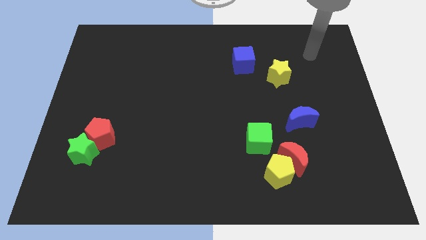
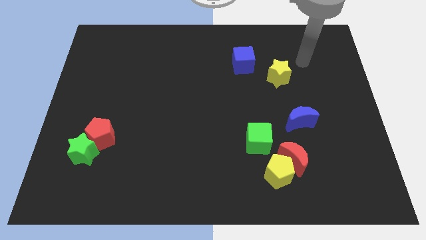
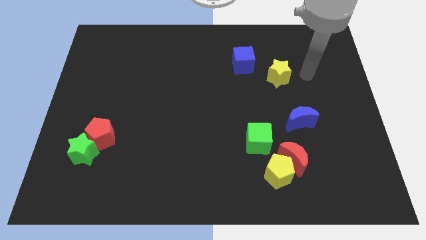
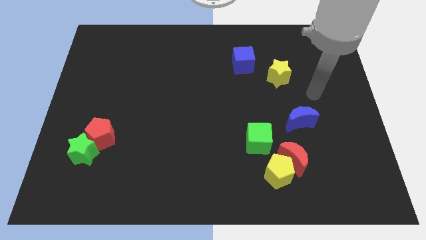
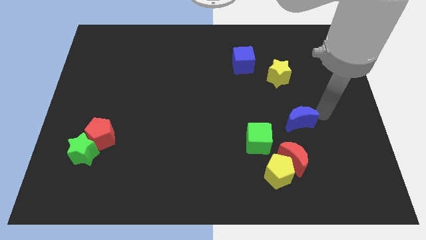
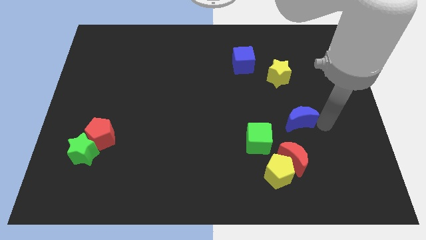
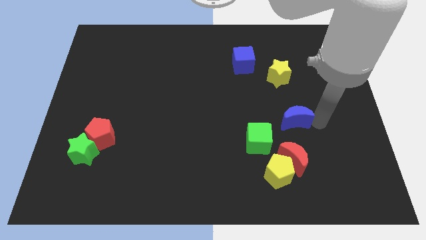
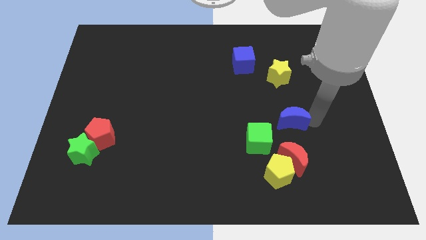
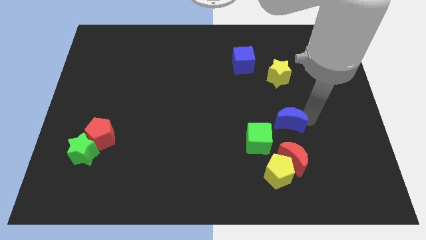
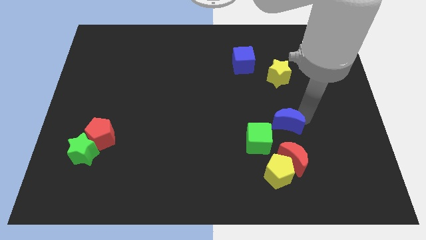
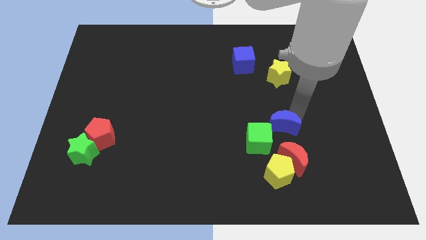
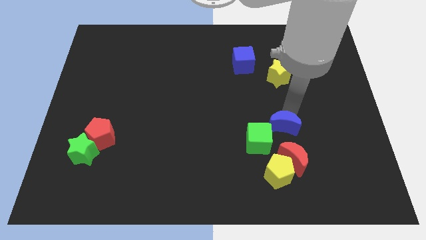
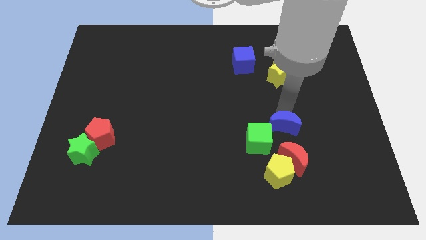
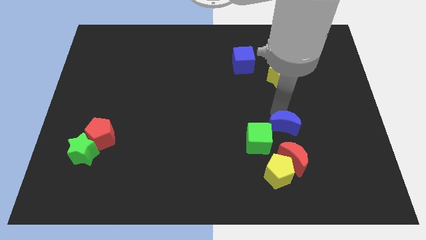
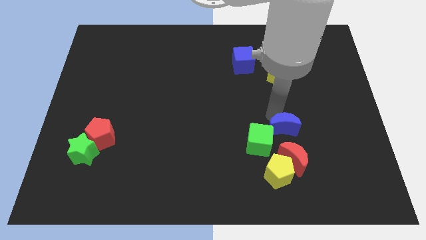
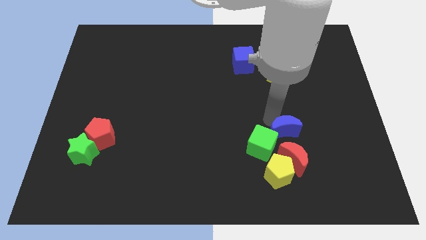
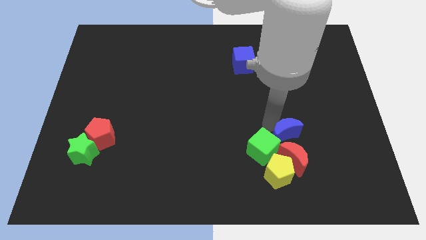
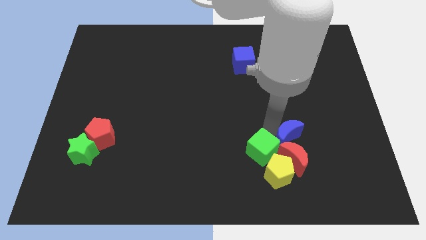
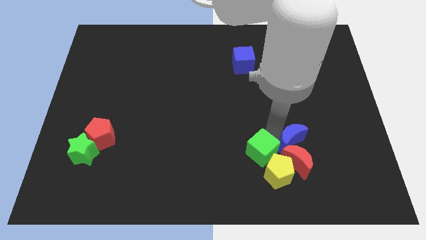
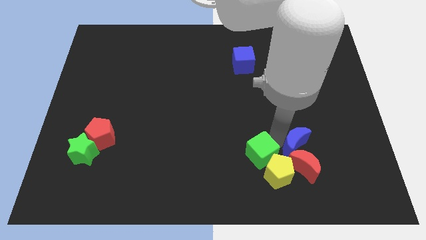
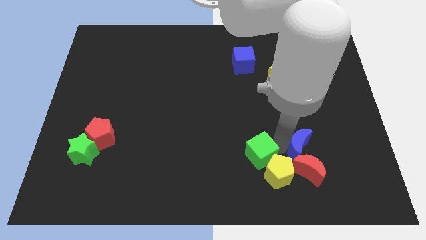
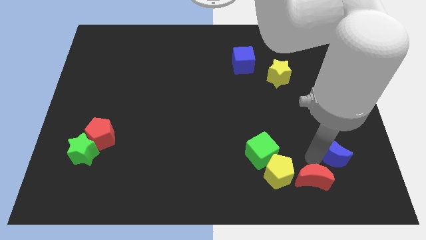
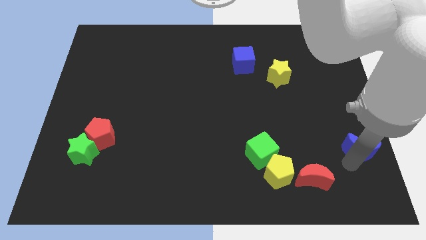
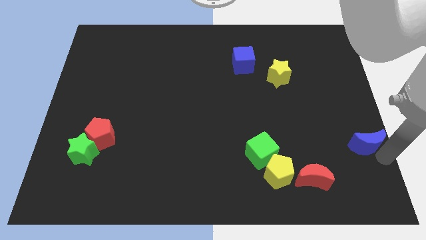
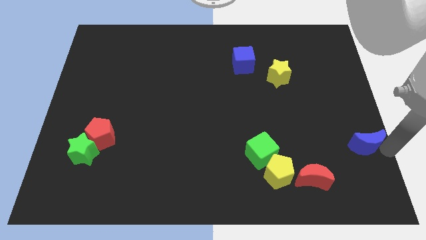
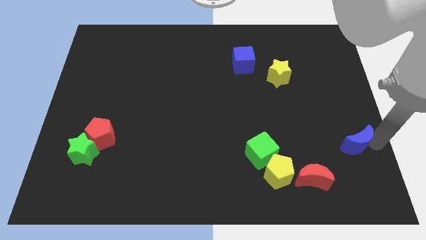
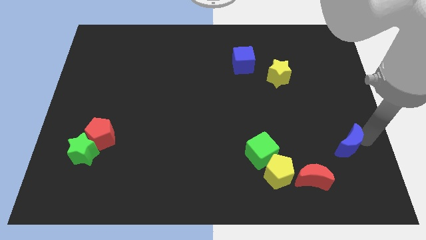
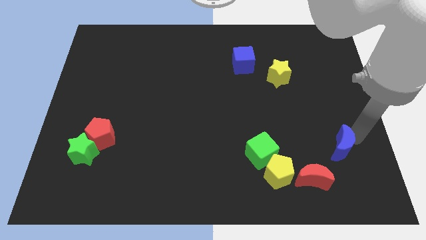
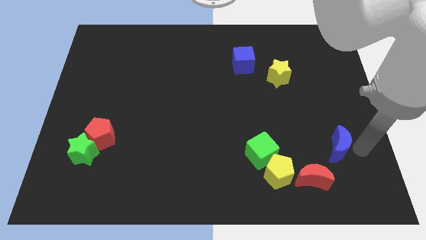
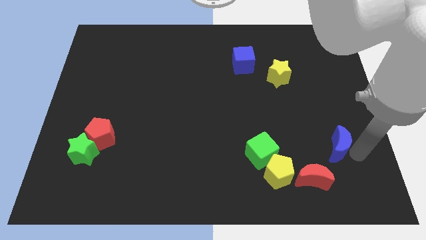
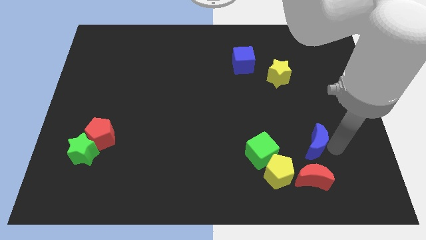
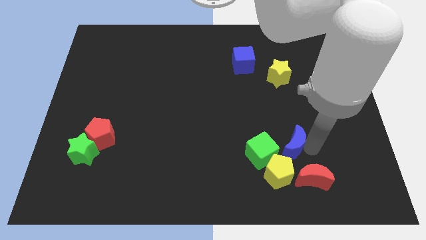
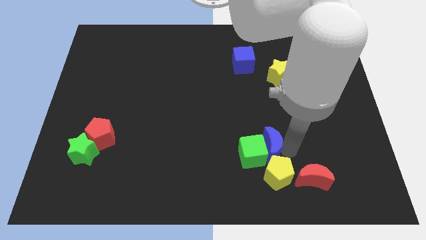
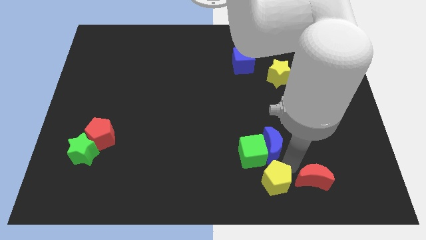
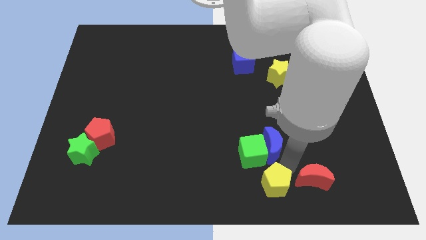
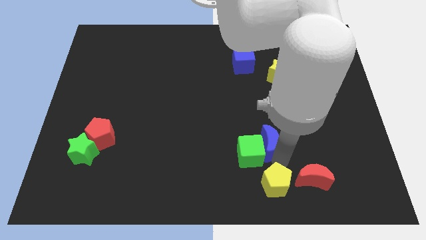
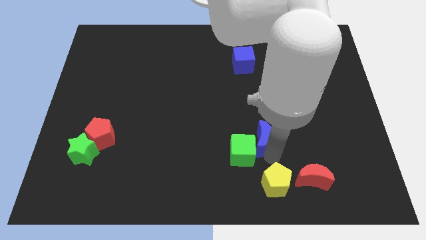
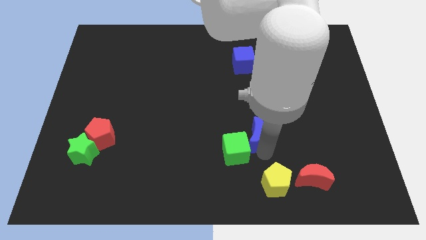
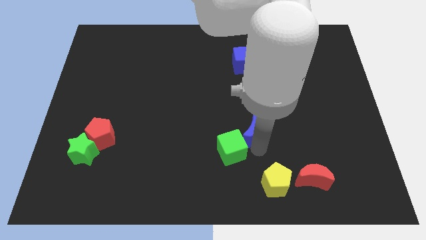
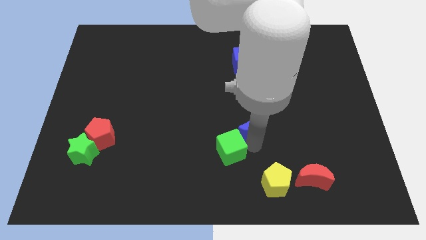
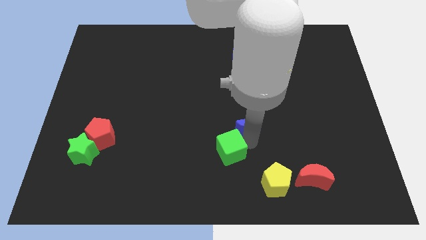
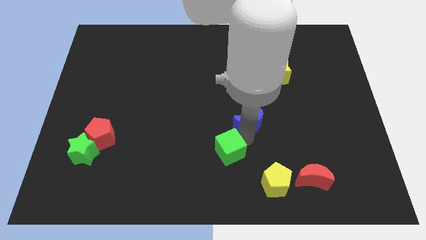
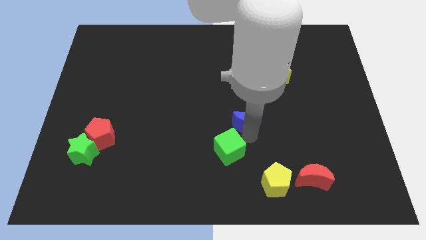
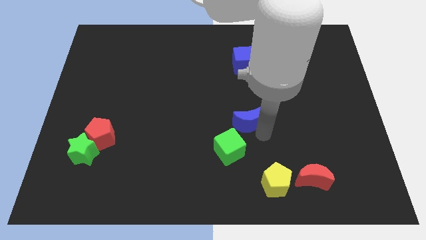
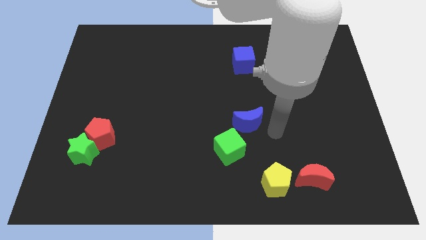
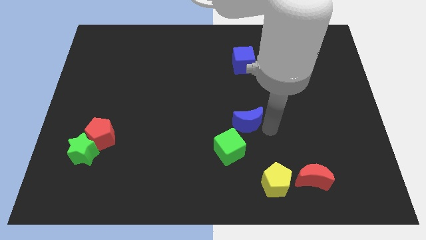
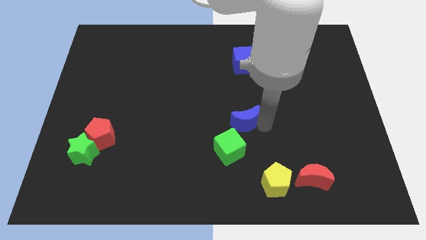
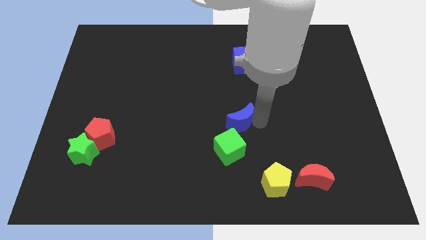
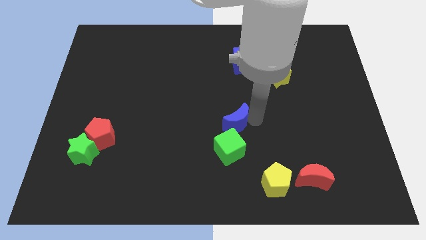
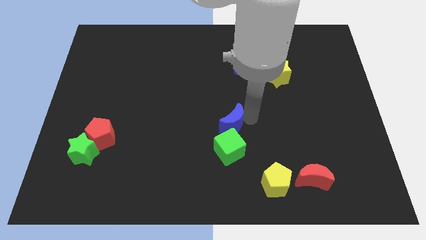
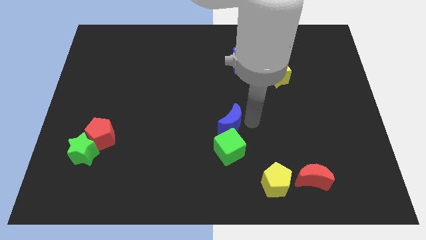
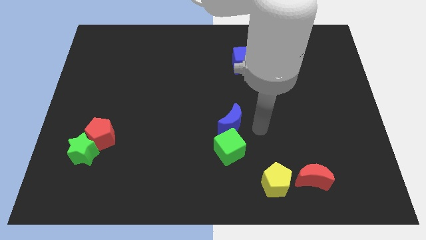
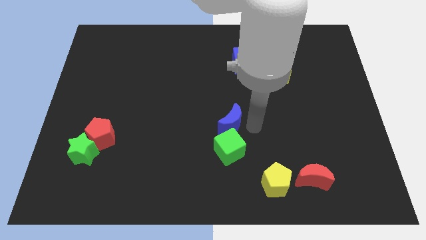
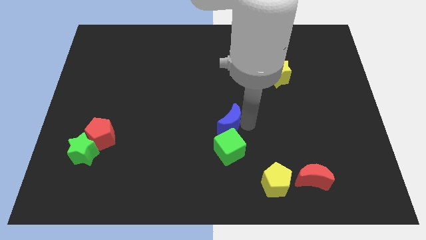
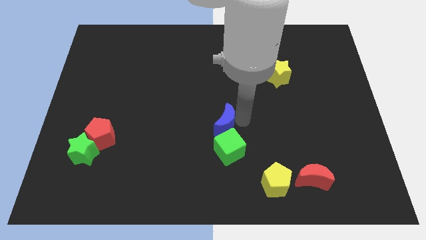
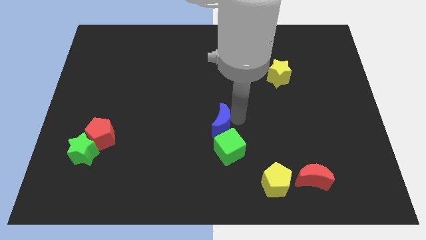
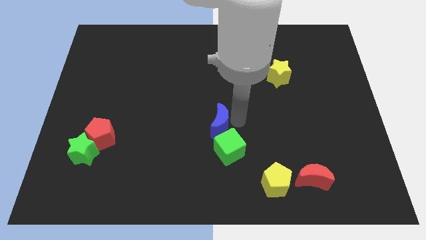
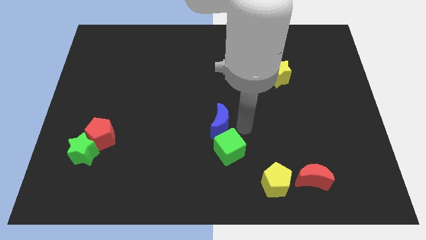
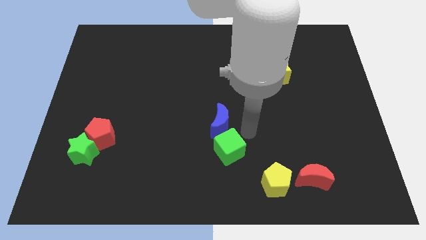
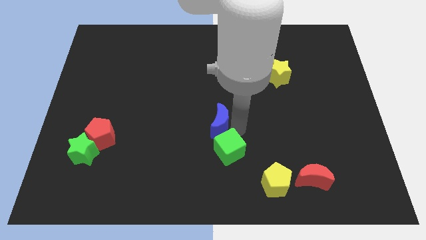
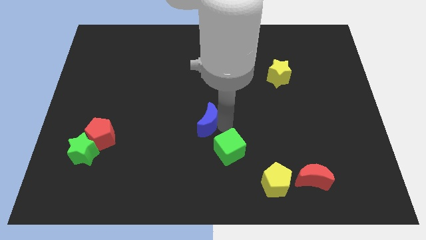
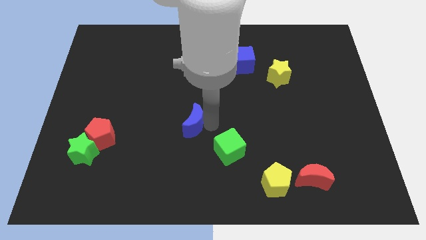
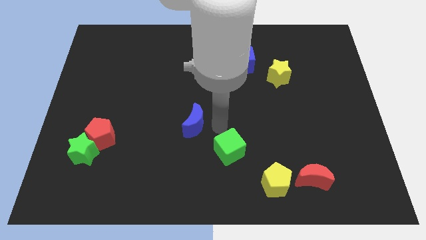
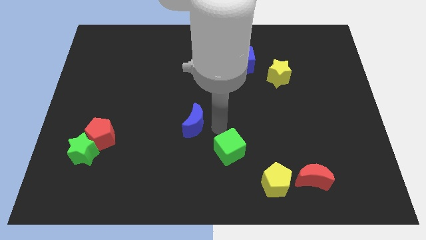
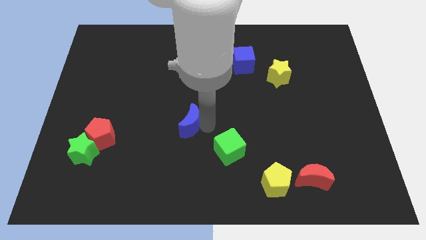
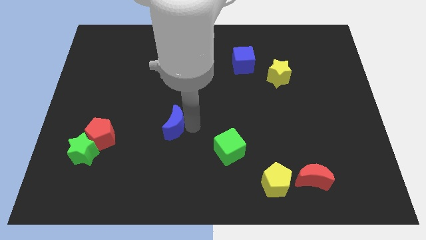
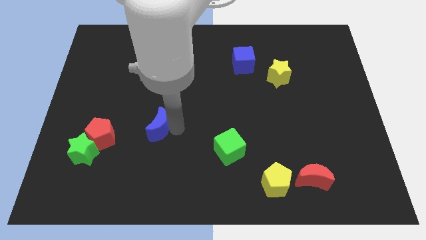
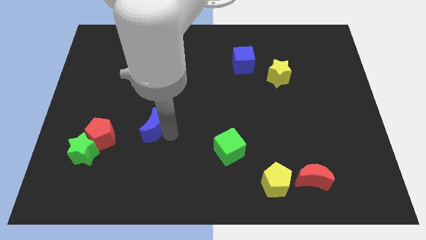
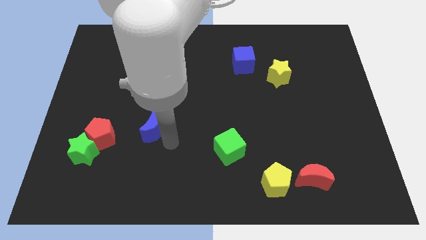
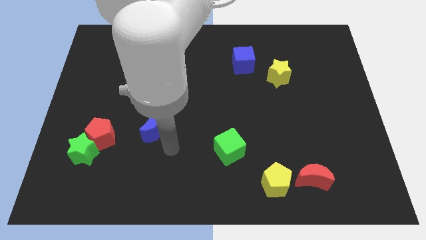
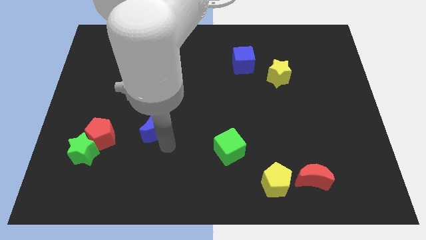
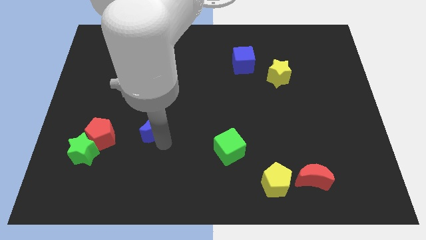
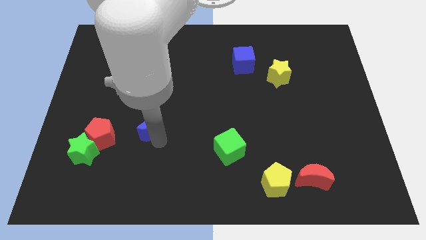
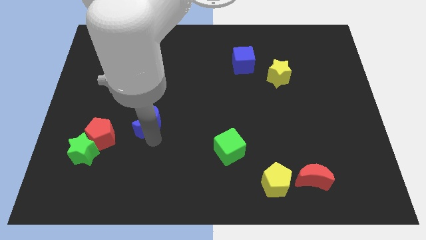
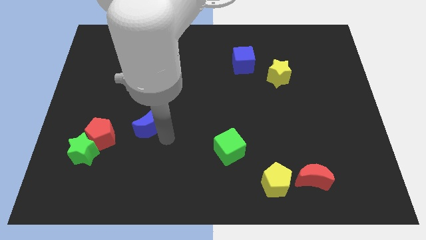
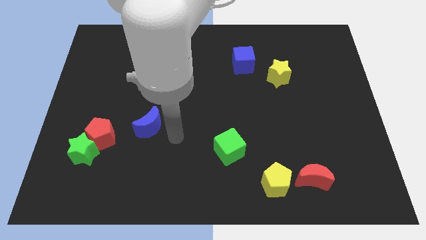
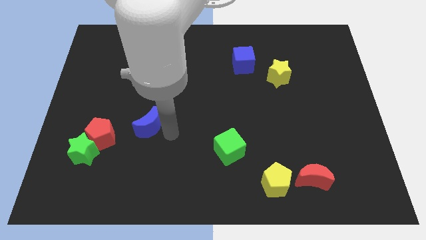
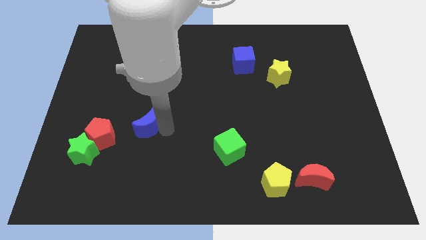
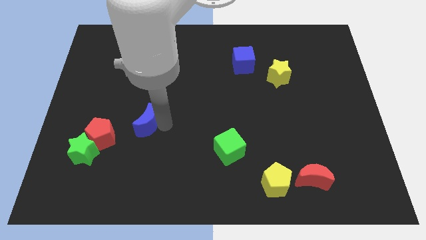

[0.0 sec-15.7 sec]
move the blue moon to the top right side of the red pentagon
